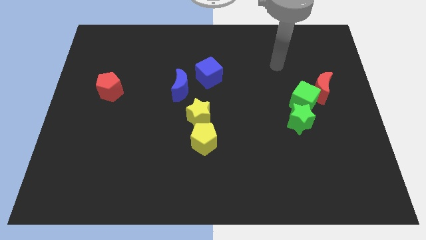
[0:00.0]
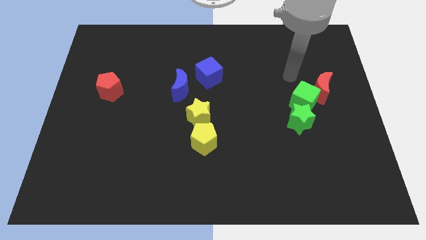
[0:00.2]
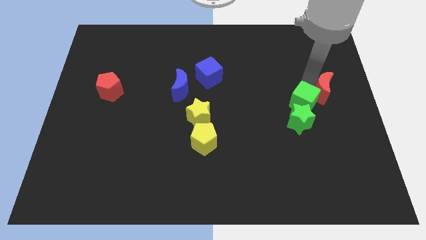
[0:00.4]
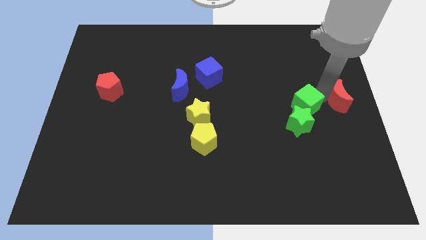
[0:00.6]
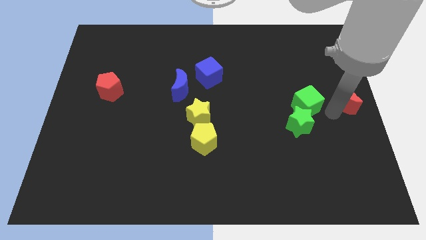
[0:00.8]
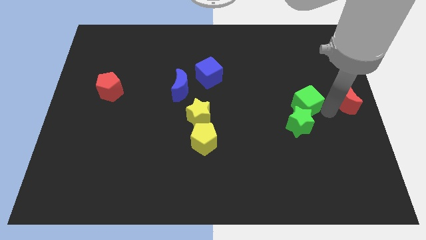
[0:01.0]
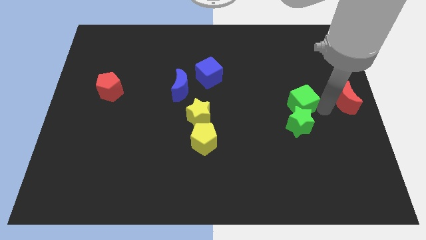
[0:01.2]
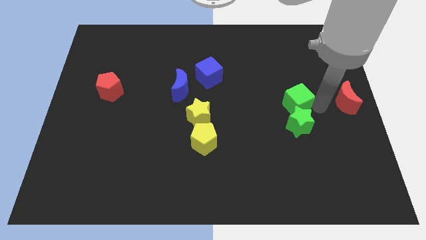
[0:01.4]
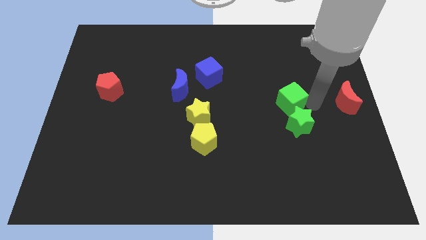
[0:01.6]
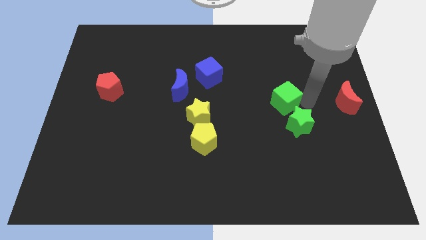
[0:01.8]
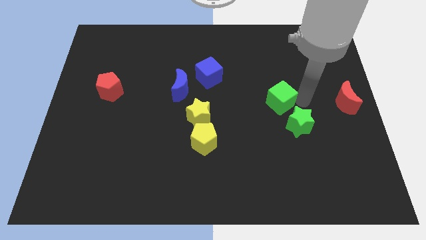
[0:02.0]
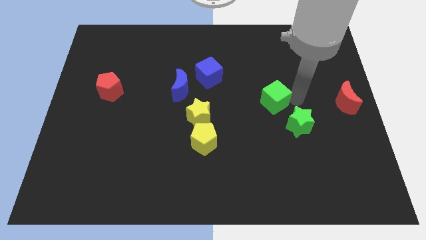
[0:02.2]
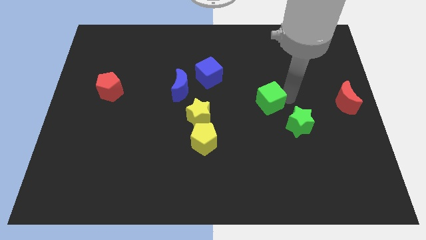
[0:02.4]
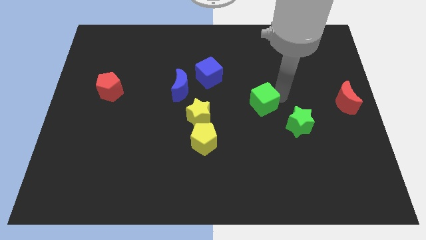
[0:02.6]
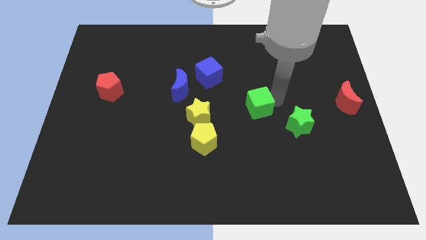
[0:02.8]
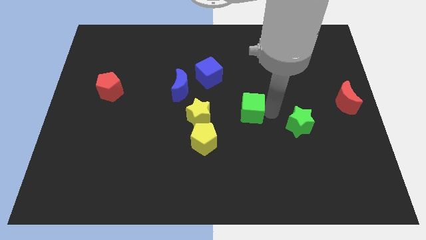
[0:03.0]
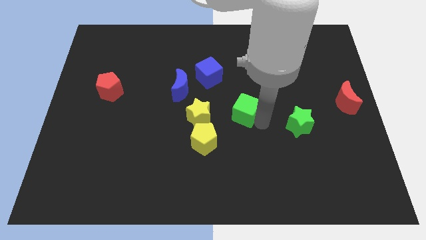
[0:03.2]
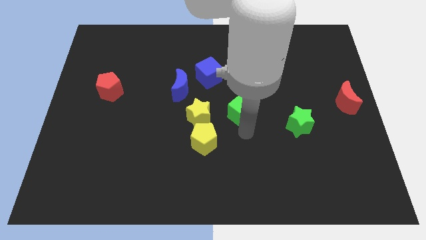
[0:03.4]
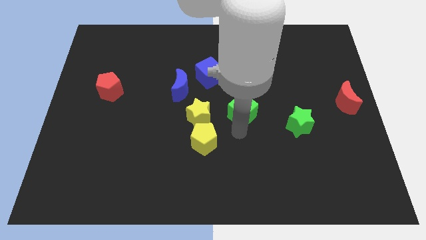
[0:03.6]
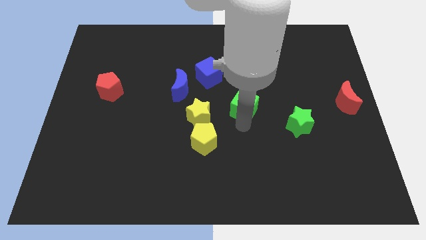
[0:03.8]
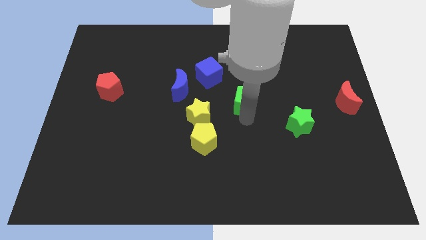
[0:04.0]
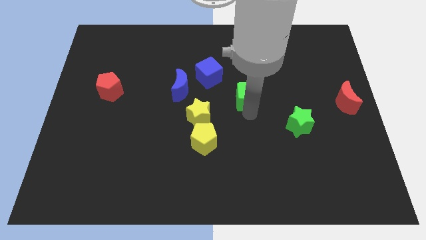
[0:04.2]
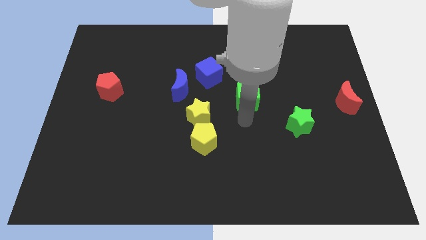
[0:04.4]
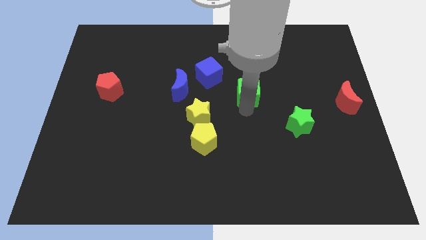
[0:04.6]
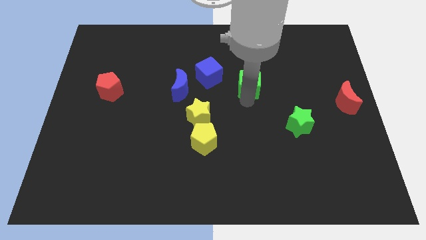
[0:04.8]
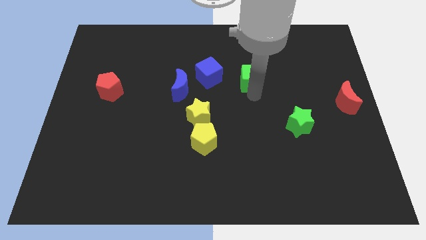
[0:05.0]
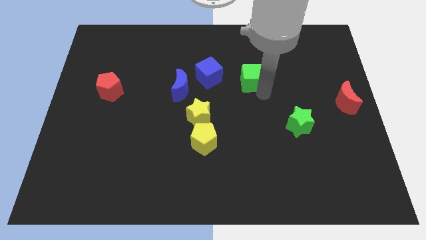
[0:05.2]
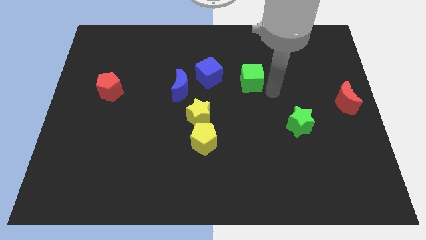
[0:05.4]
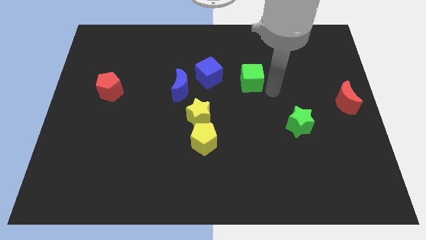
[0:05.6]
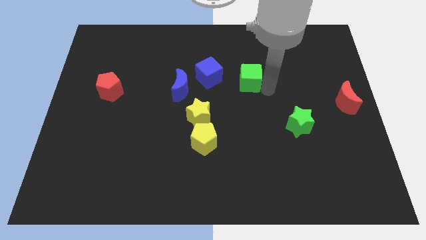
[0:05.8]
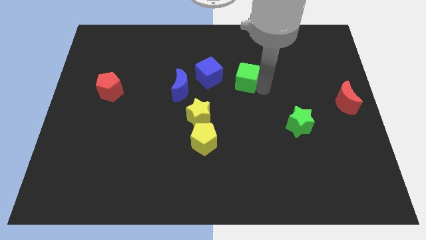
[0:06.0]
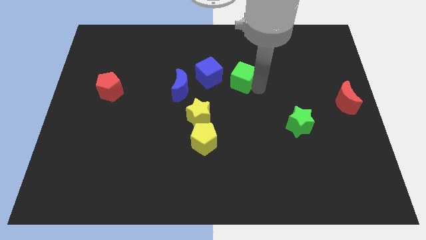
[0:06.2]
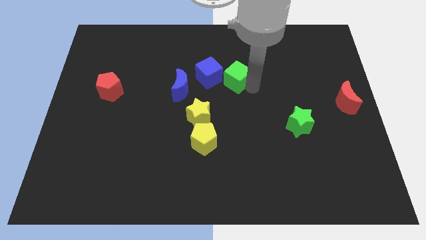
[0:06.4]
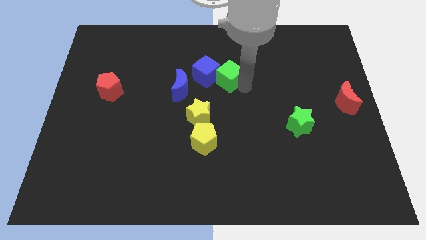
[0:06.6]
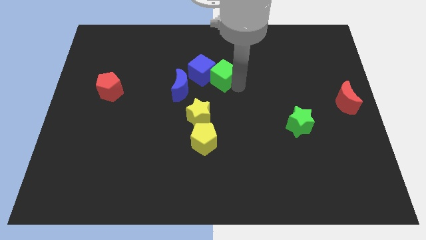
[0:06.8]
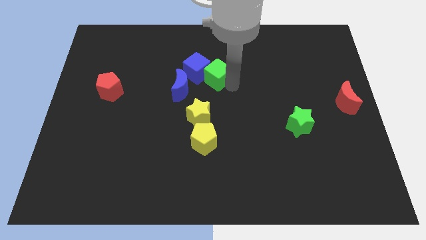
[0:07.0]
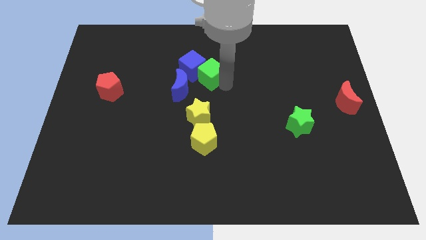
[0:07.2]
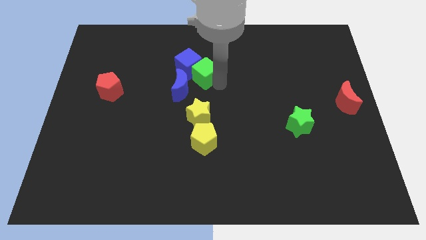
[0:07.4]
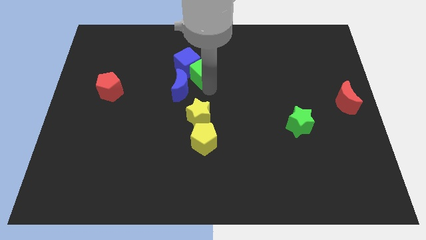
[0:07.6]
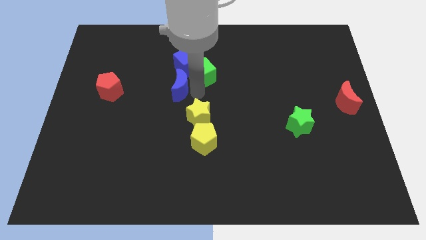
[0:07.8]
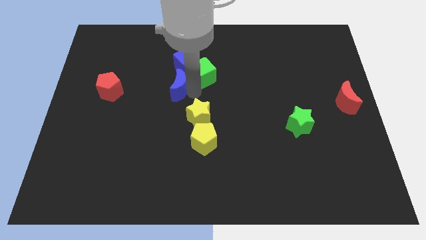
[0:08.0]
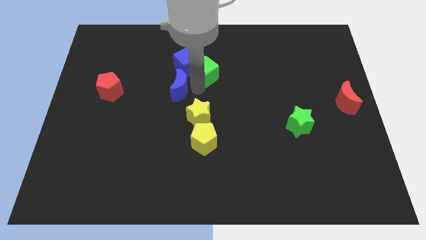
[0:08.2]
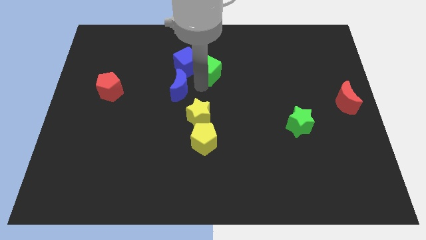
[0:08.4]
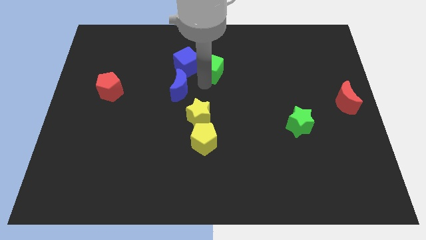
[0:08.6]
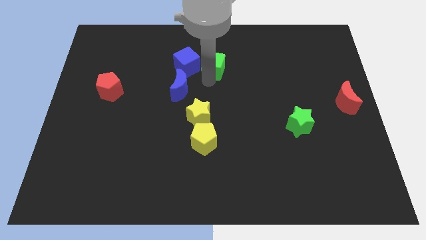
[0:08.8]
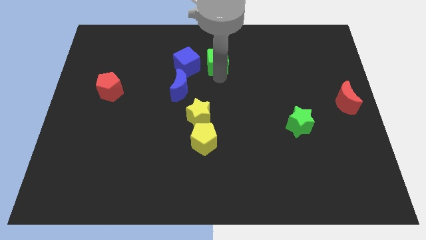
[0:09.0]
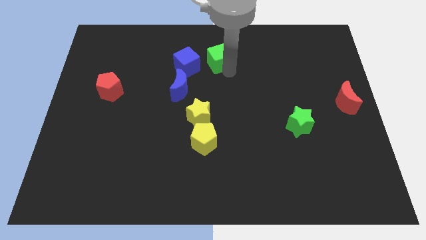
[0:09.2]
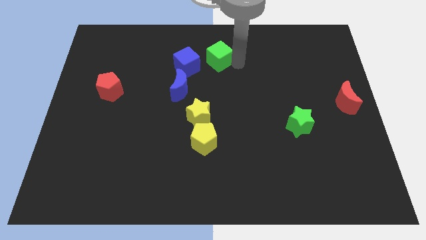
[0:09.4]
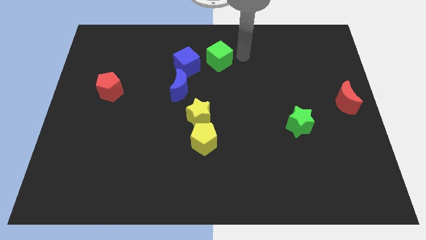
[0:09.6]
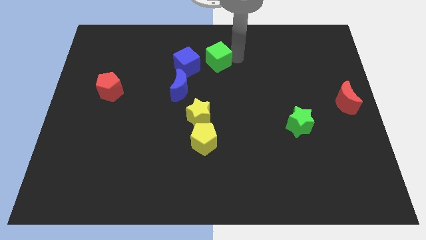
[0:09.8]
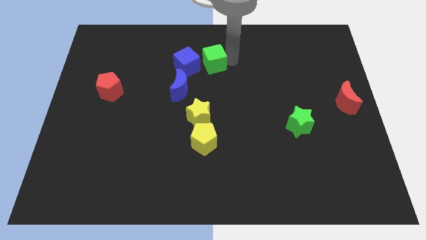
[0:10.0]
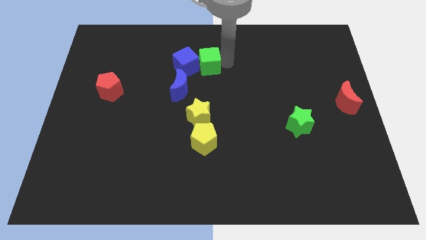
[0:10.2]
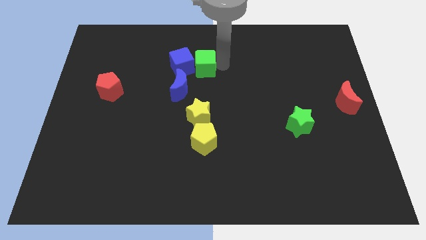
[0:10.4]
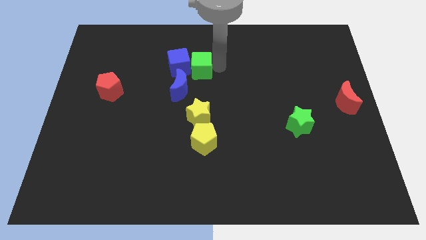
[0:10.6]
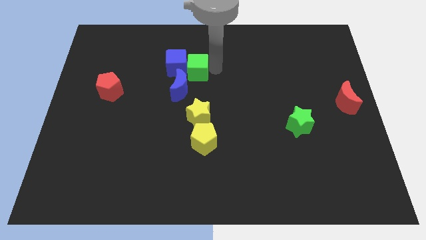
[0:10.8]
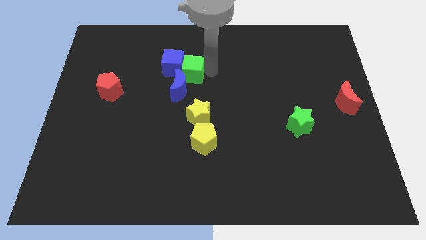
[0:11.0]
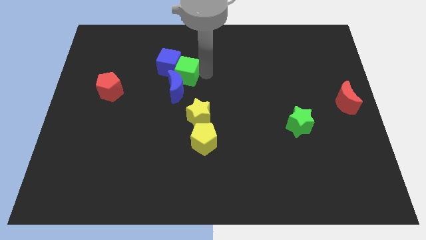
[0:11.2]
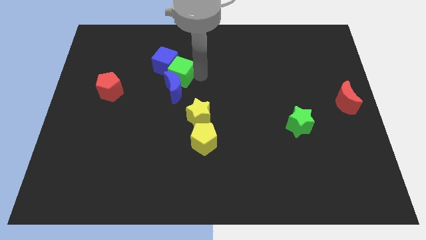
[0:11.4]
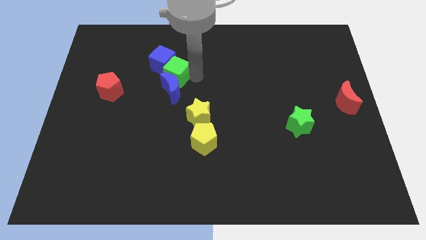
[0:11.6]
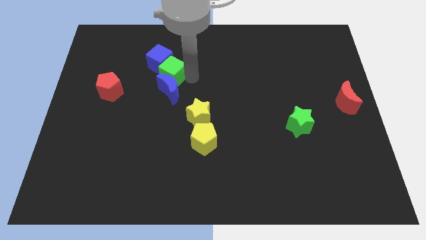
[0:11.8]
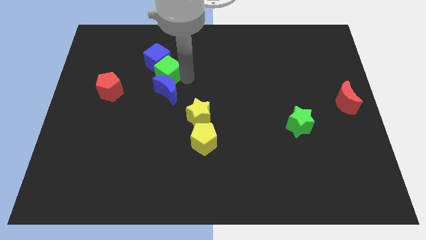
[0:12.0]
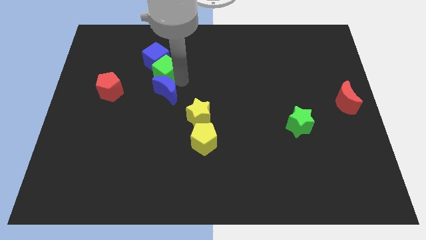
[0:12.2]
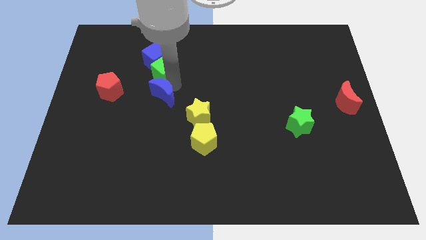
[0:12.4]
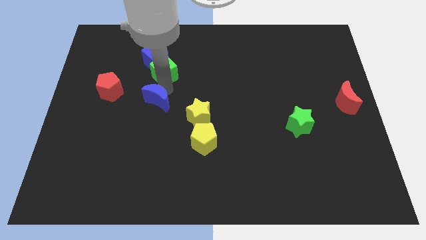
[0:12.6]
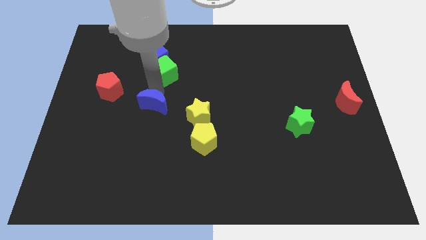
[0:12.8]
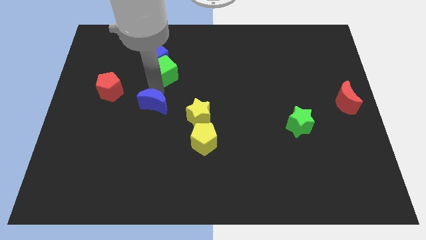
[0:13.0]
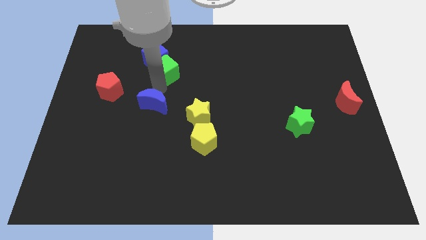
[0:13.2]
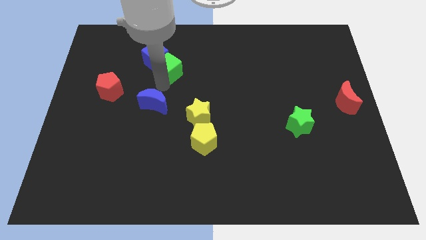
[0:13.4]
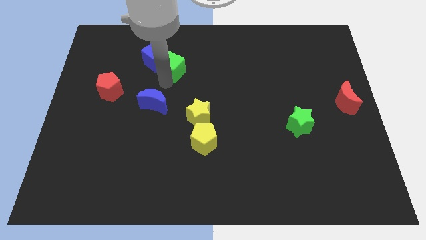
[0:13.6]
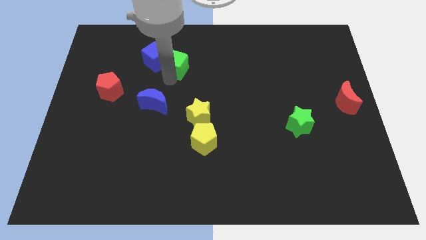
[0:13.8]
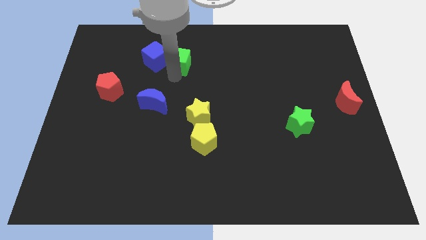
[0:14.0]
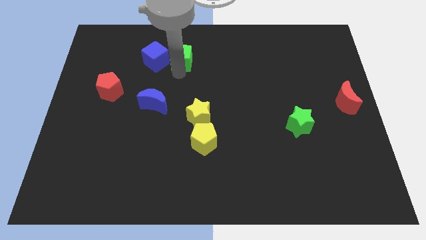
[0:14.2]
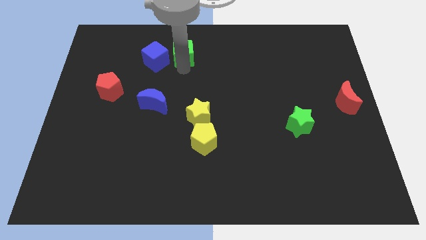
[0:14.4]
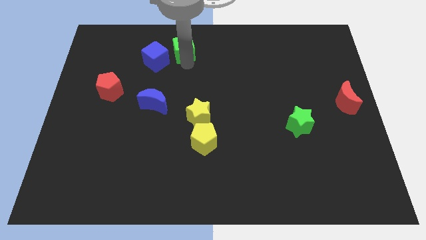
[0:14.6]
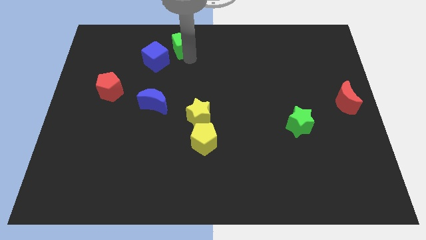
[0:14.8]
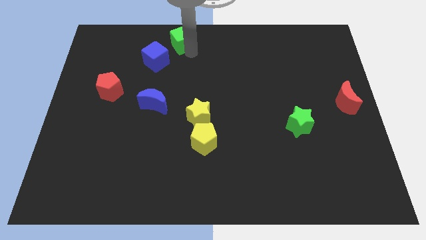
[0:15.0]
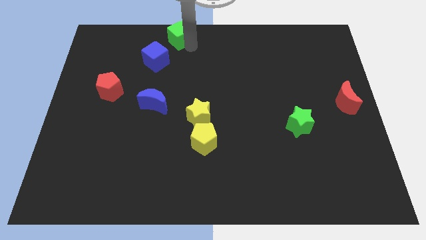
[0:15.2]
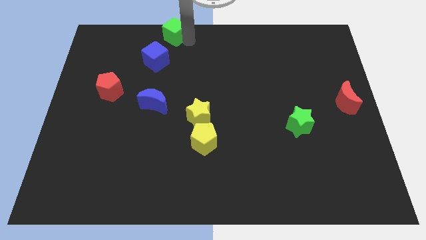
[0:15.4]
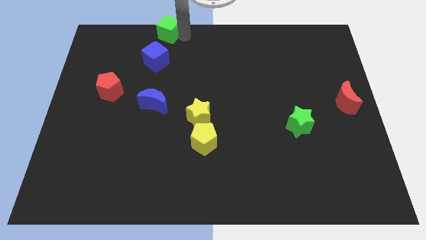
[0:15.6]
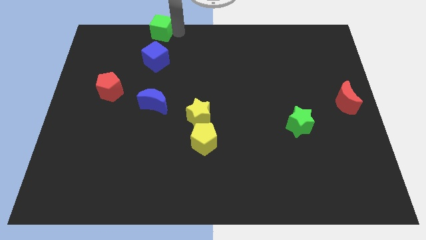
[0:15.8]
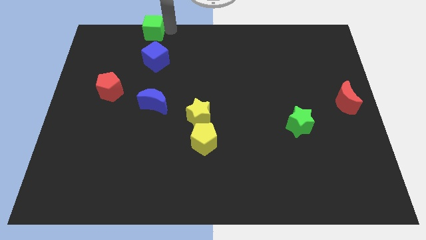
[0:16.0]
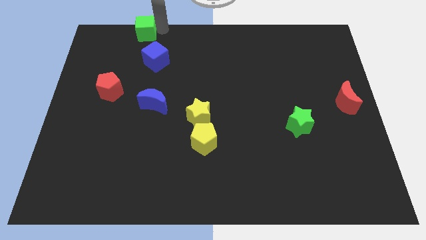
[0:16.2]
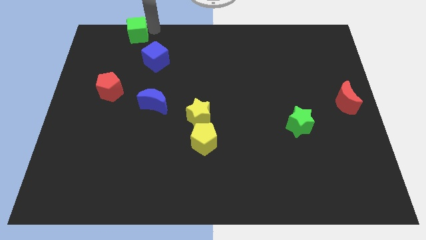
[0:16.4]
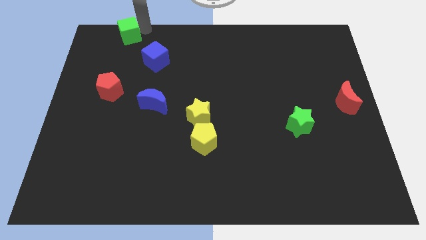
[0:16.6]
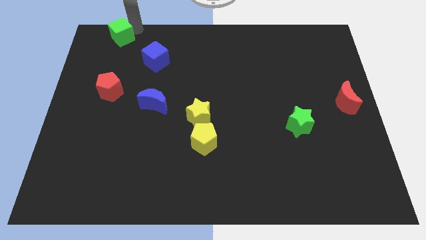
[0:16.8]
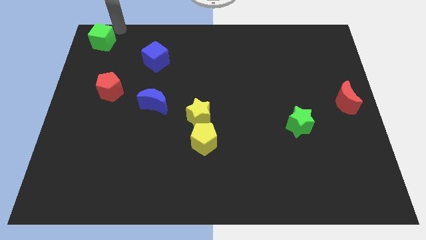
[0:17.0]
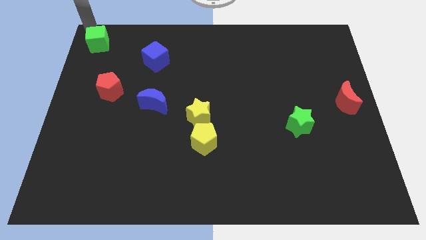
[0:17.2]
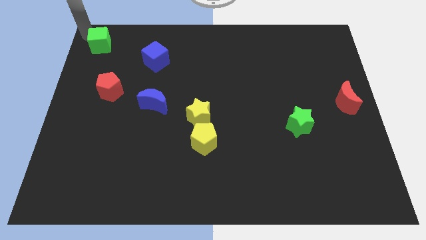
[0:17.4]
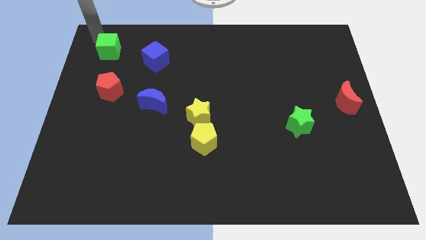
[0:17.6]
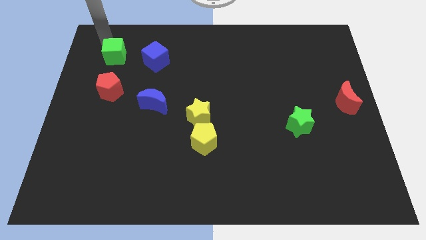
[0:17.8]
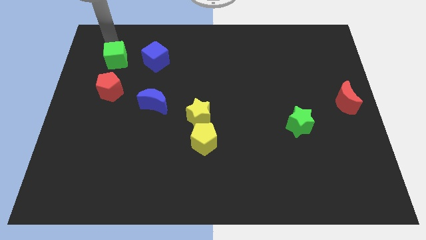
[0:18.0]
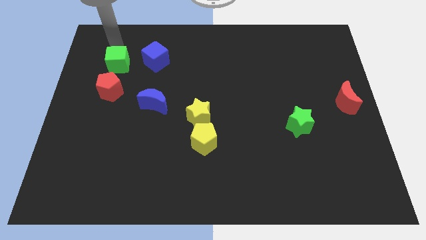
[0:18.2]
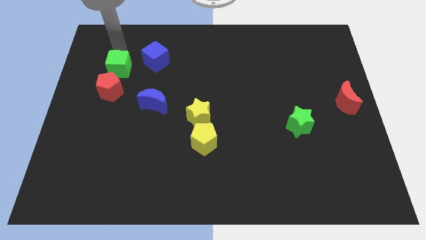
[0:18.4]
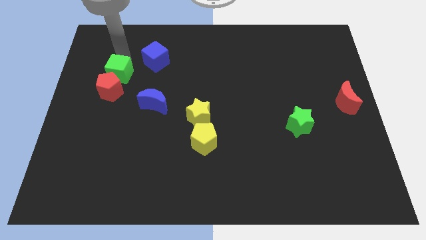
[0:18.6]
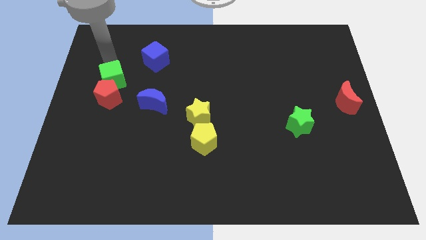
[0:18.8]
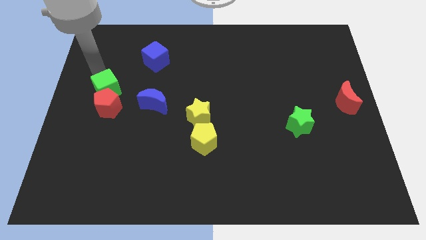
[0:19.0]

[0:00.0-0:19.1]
put the green cube to the left side of the board
